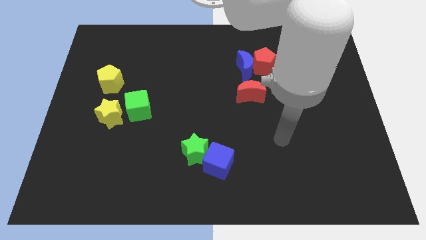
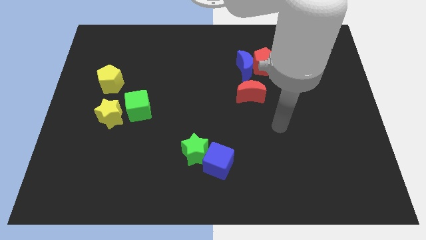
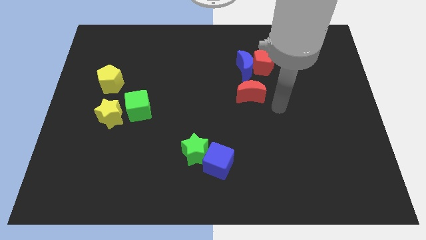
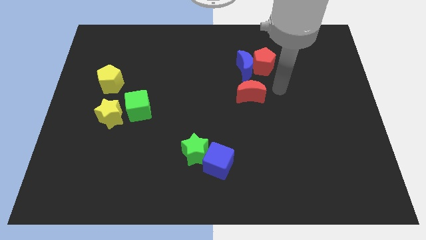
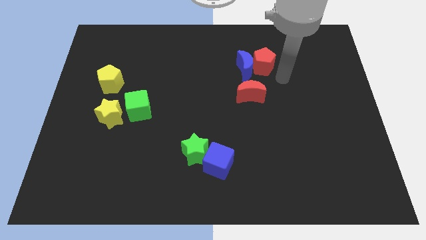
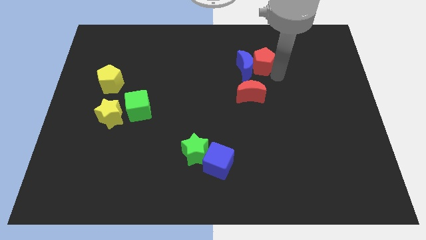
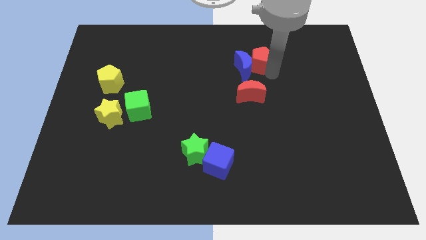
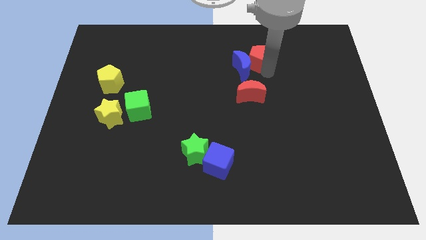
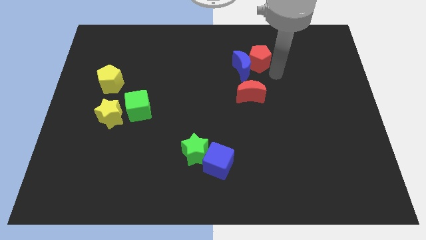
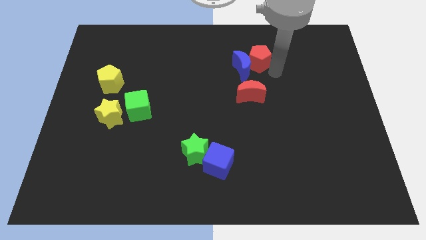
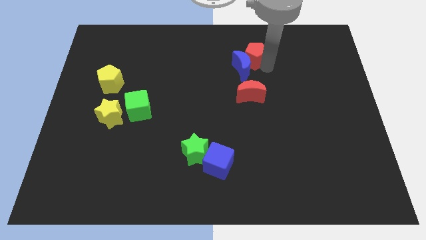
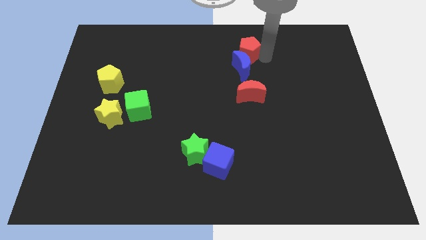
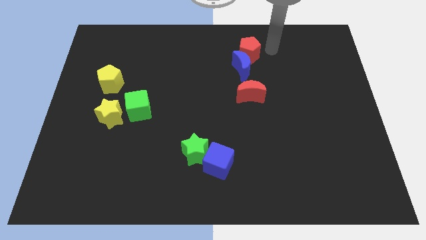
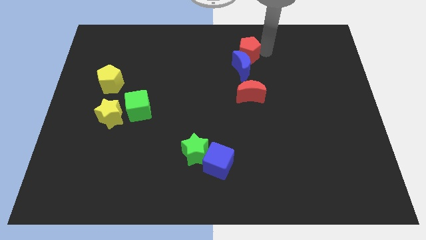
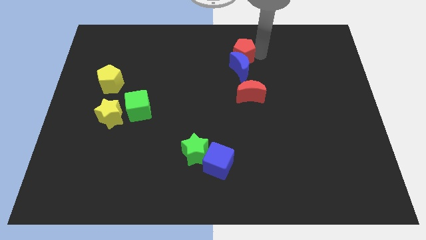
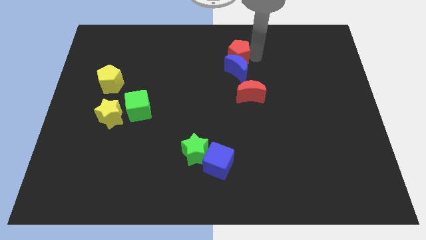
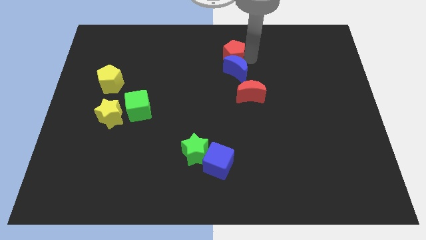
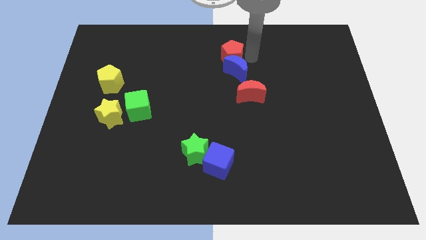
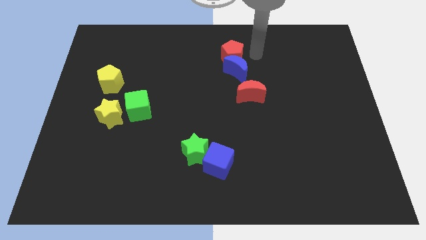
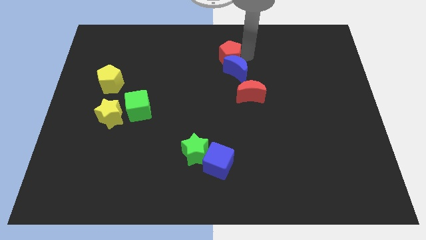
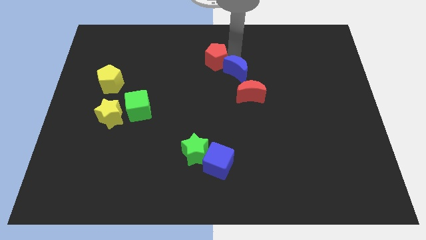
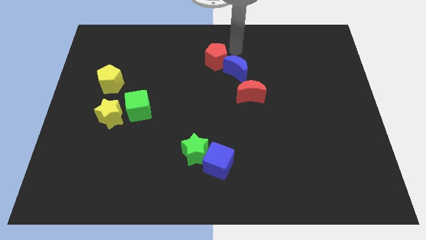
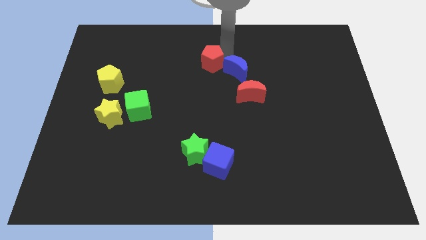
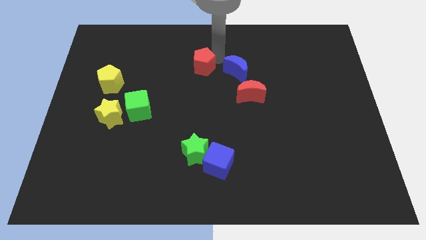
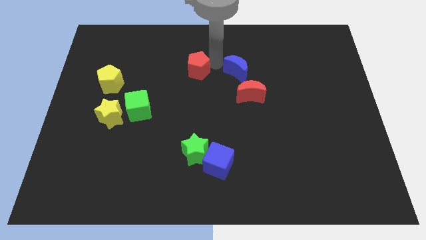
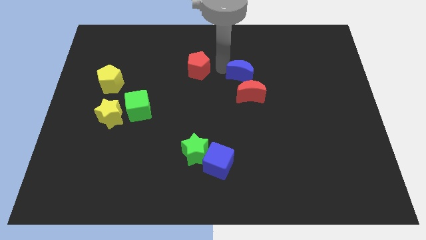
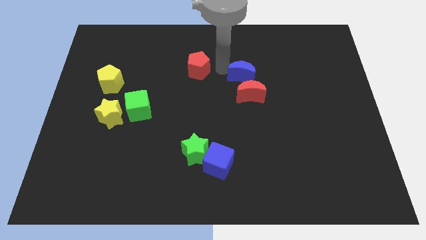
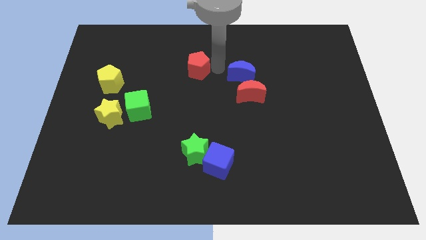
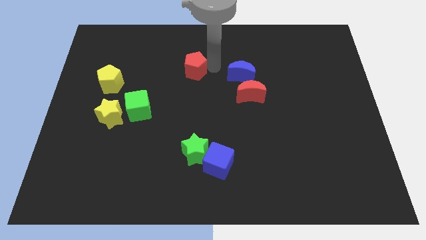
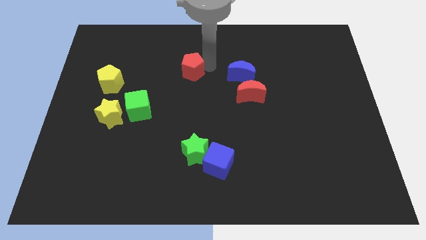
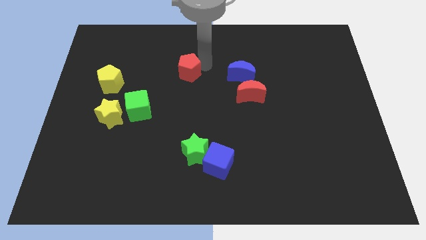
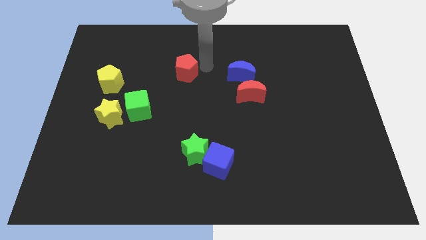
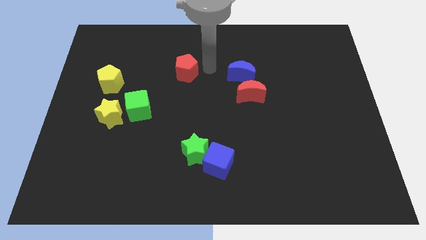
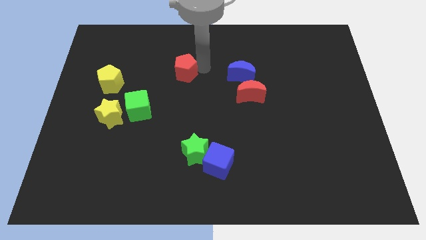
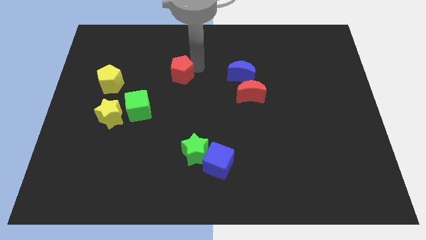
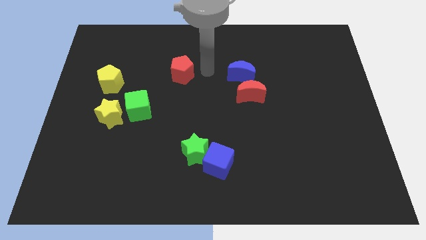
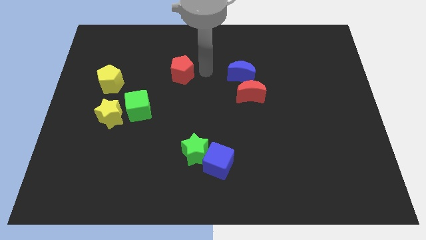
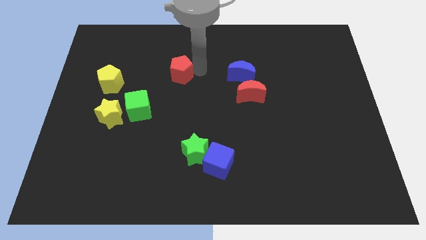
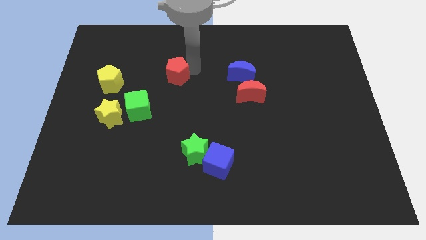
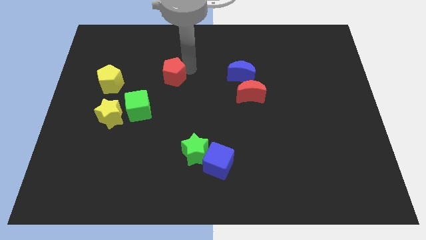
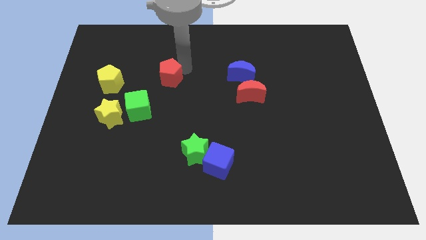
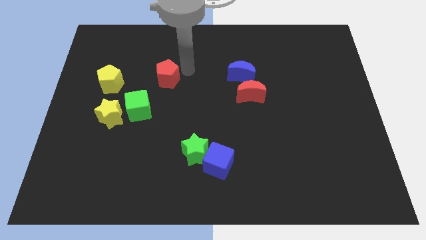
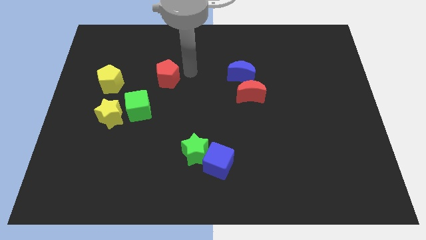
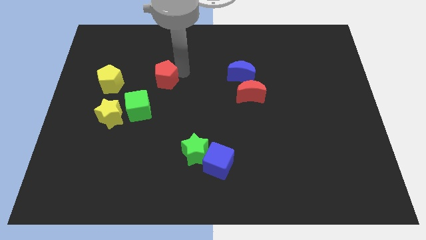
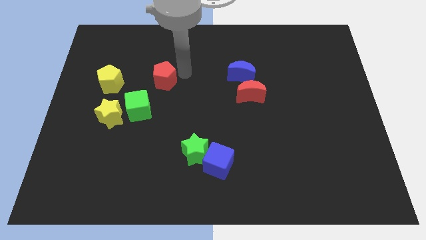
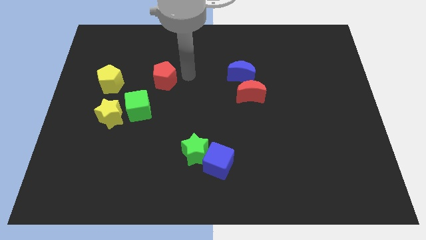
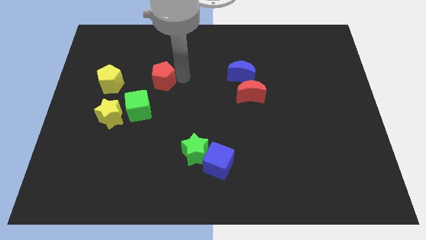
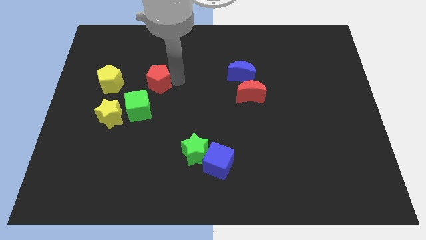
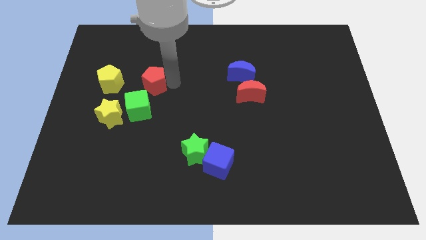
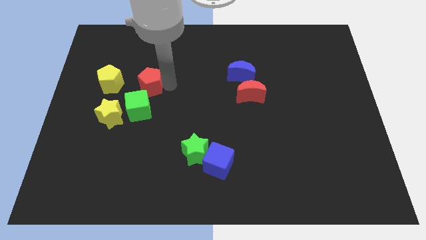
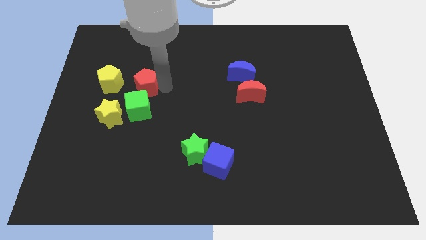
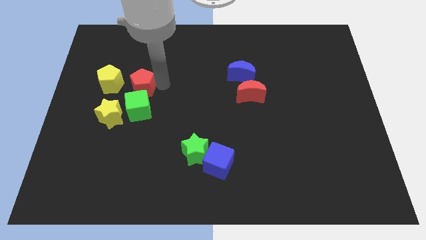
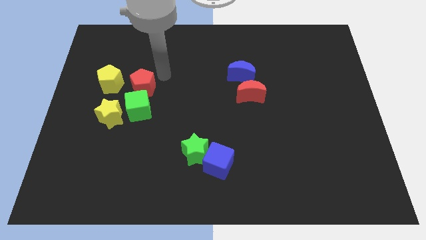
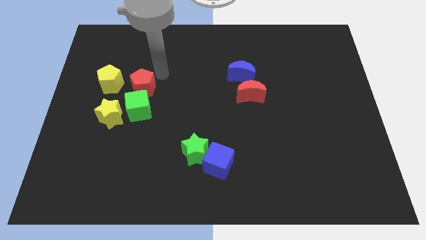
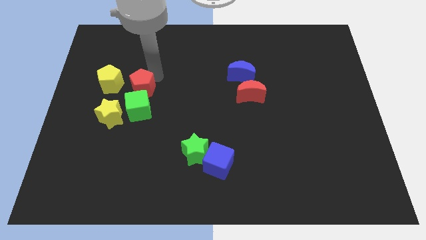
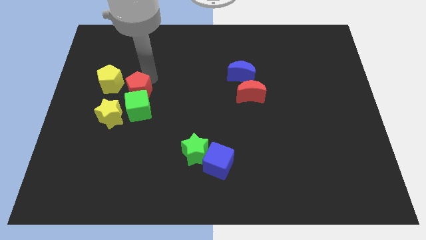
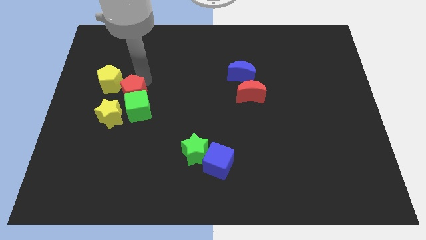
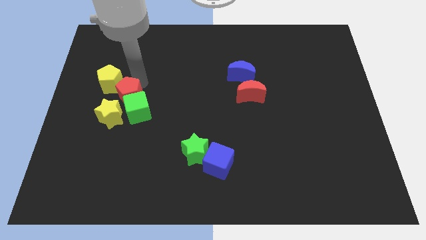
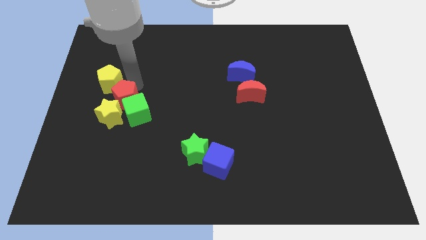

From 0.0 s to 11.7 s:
slide the red pentagon close to the yellow star

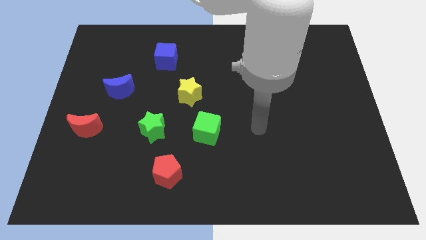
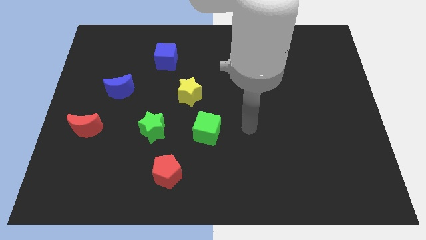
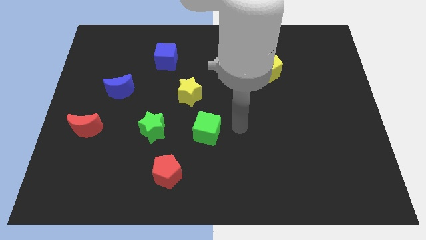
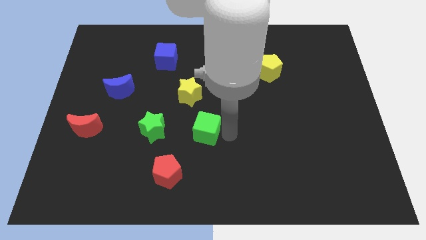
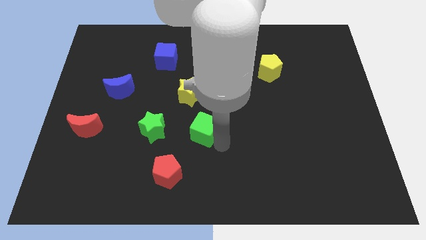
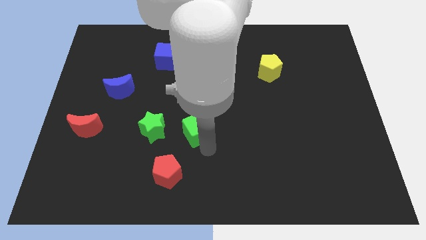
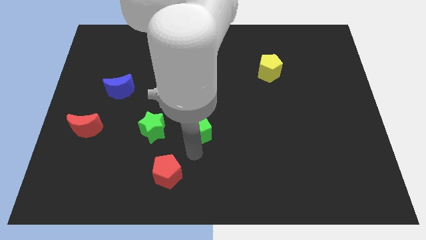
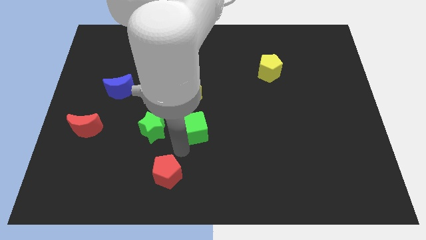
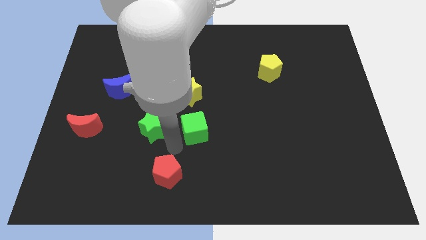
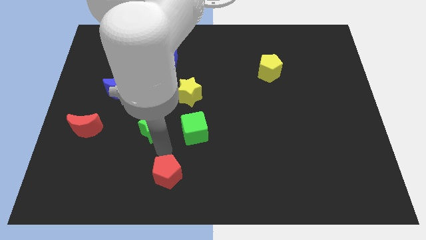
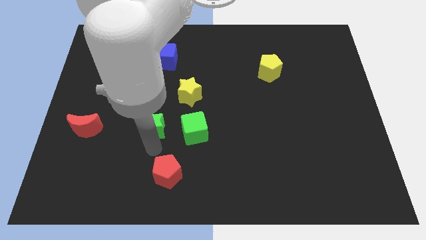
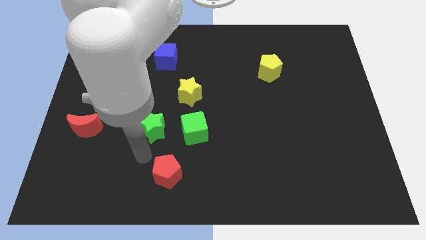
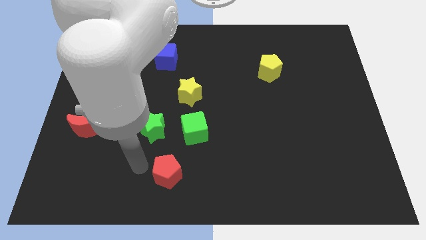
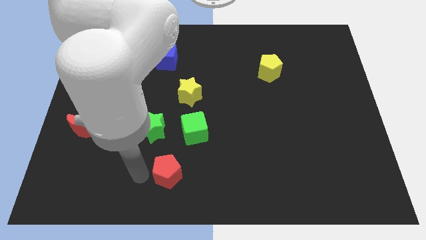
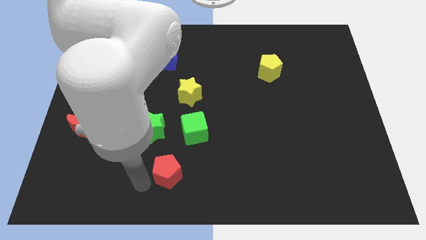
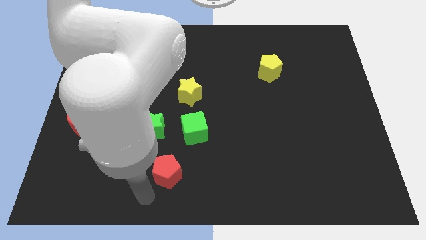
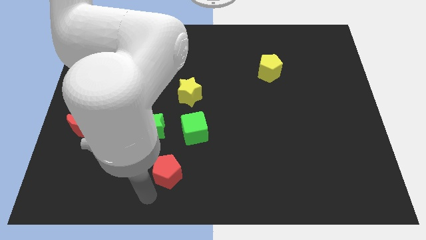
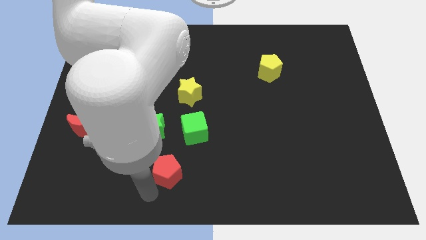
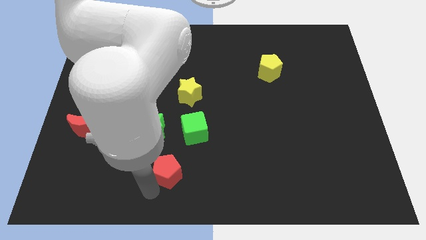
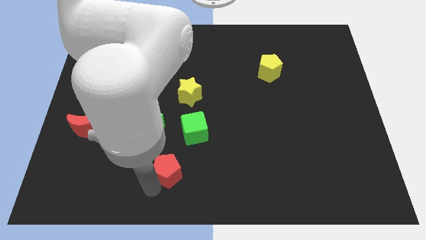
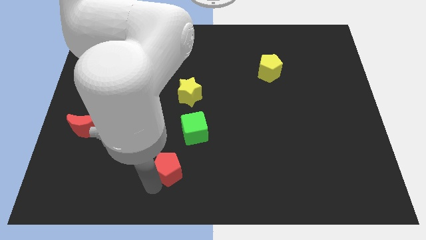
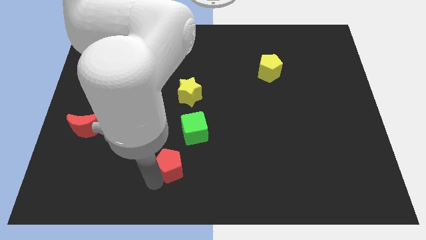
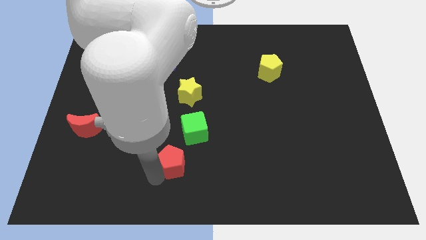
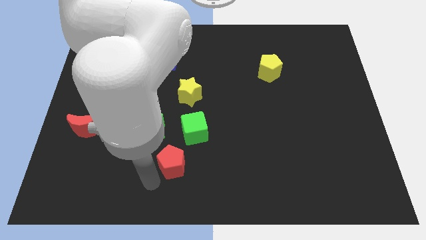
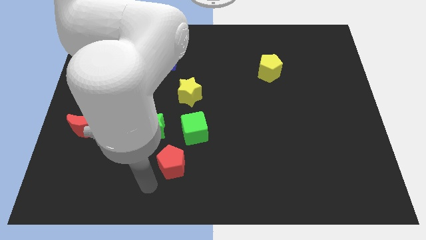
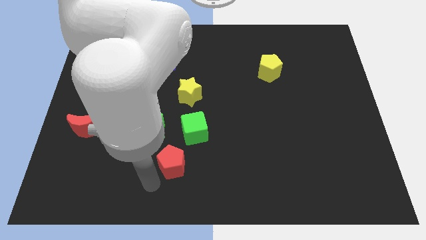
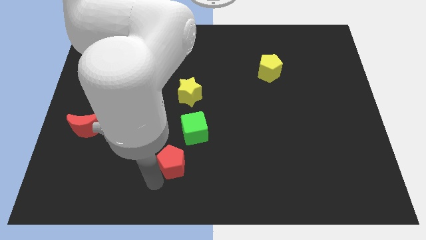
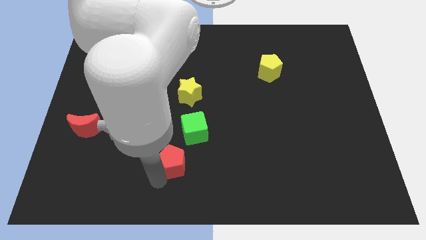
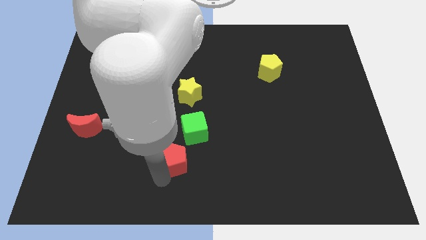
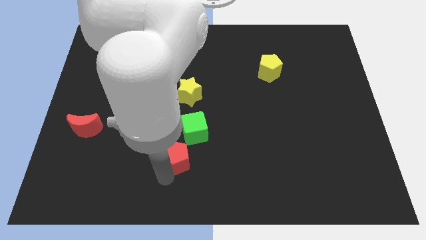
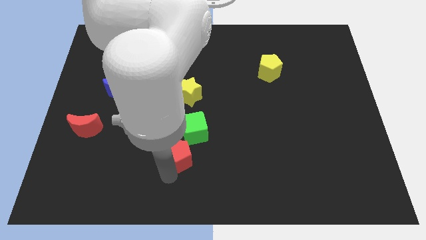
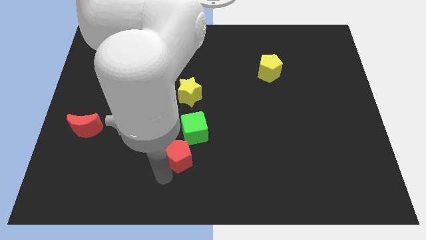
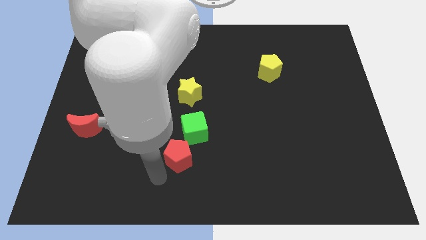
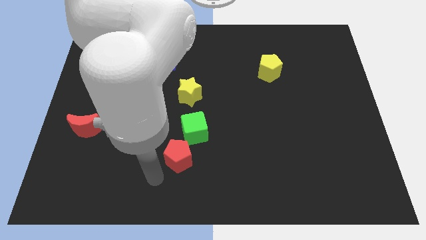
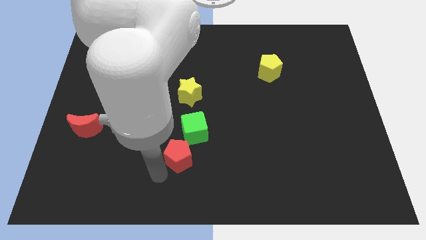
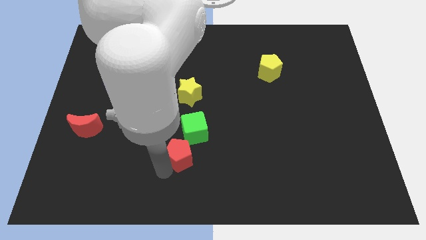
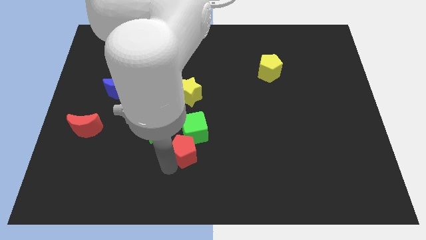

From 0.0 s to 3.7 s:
put the red pentagon to the green cube
